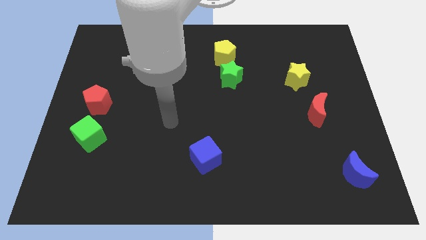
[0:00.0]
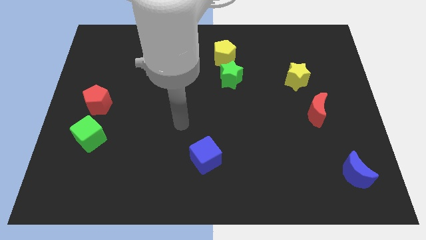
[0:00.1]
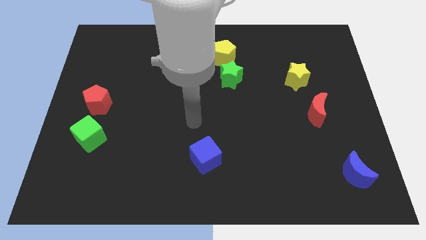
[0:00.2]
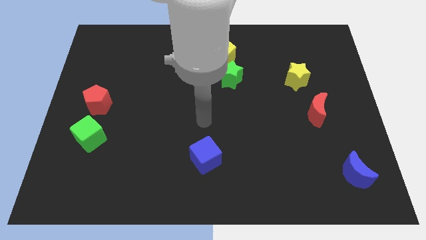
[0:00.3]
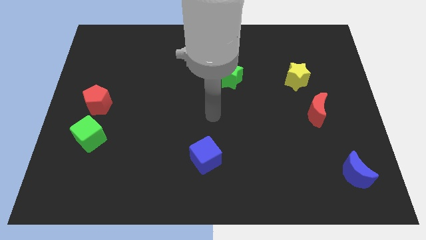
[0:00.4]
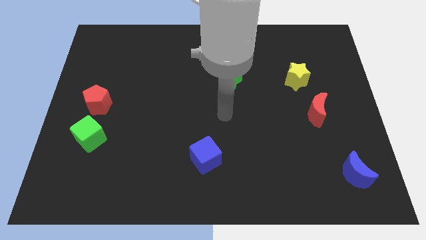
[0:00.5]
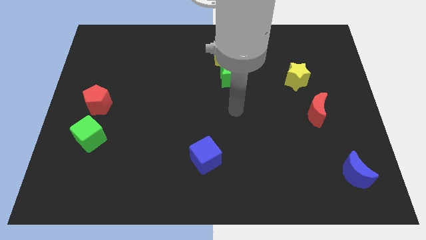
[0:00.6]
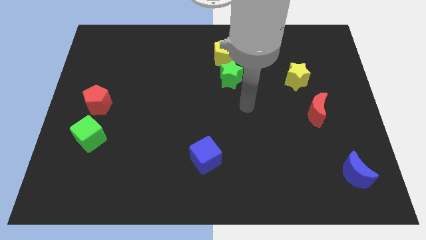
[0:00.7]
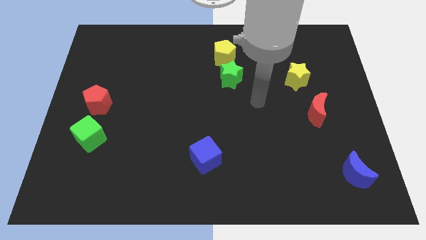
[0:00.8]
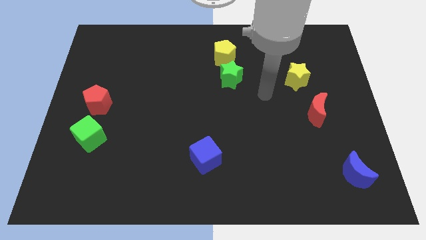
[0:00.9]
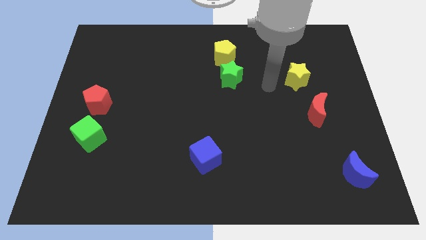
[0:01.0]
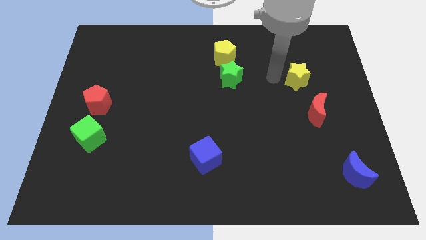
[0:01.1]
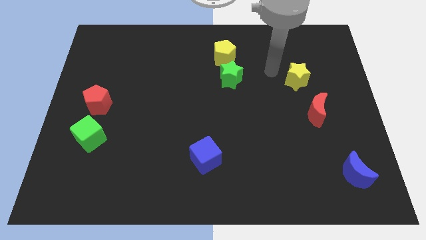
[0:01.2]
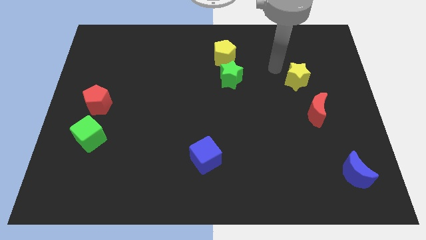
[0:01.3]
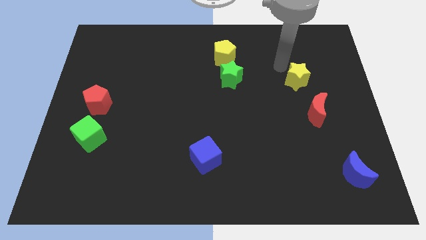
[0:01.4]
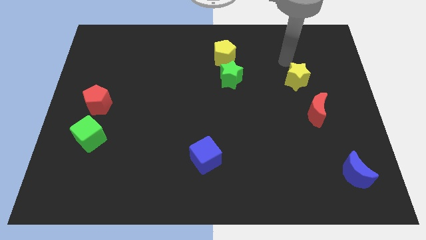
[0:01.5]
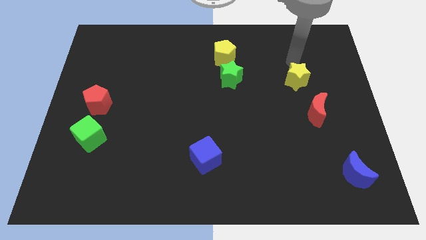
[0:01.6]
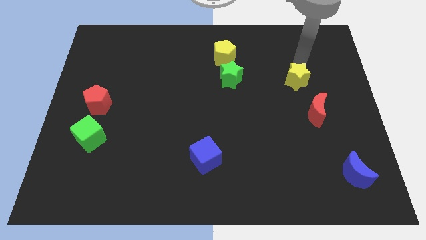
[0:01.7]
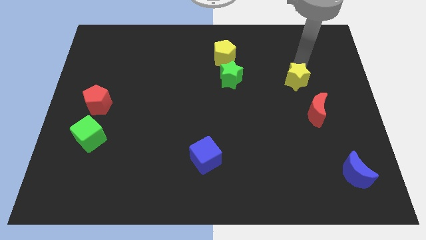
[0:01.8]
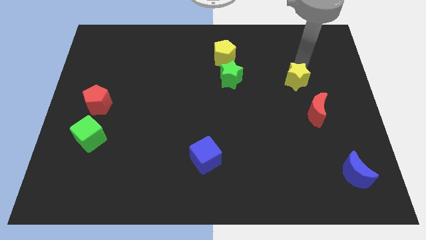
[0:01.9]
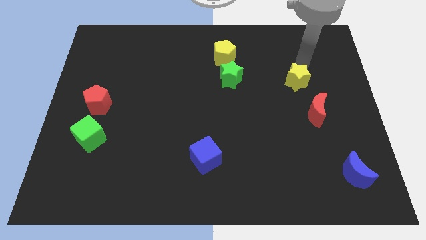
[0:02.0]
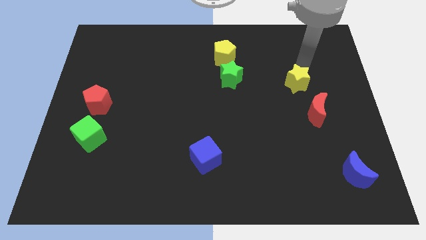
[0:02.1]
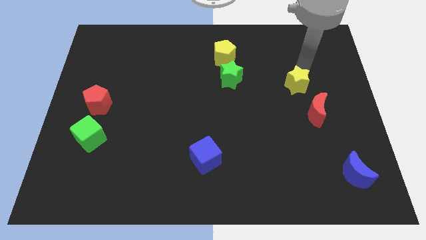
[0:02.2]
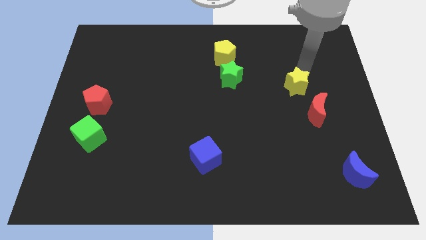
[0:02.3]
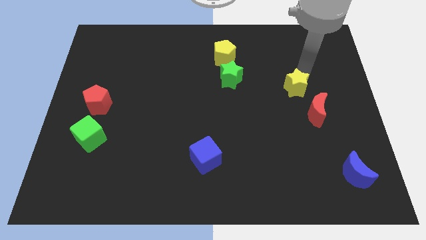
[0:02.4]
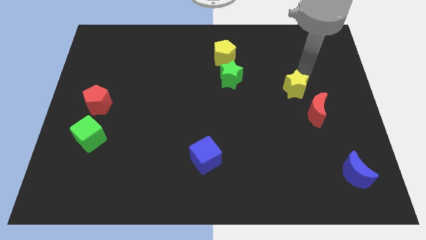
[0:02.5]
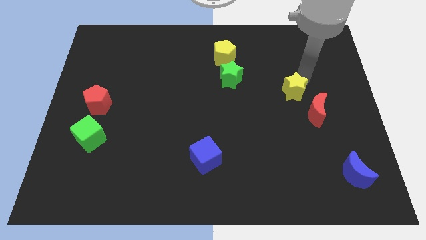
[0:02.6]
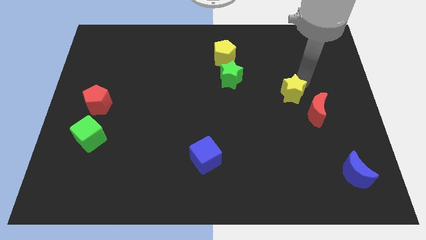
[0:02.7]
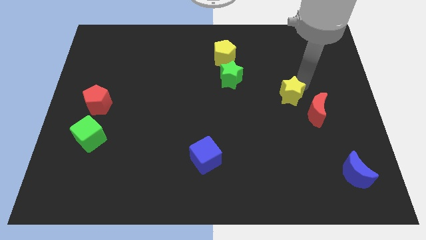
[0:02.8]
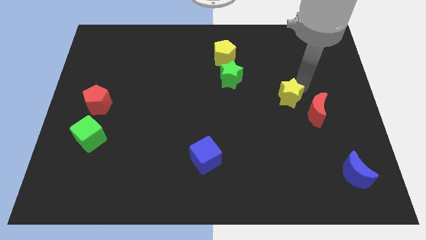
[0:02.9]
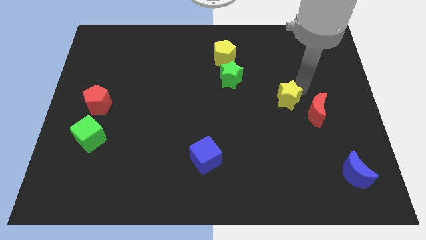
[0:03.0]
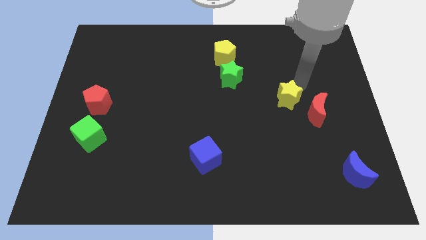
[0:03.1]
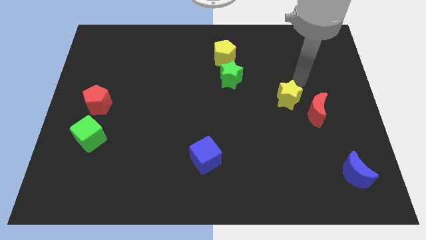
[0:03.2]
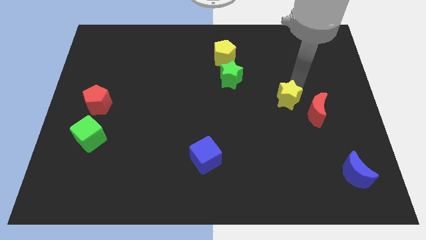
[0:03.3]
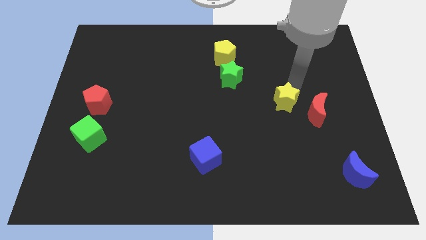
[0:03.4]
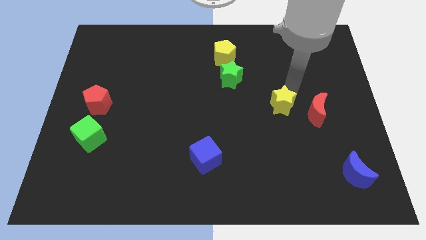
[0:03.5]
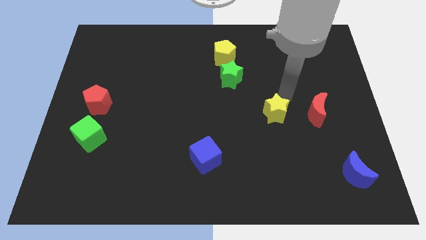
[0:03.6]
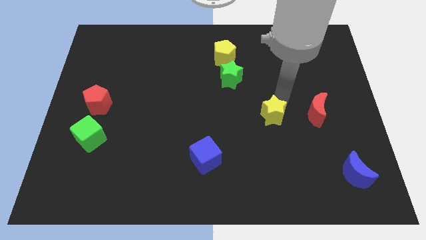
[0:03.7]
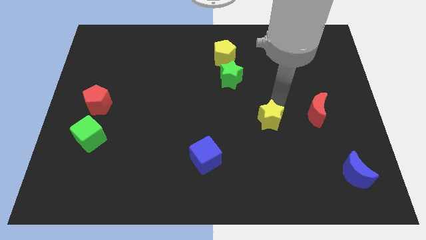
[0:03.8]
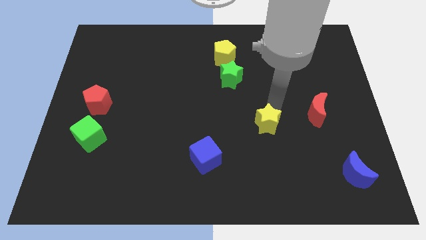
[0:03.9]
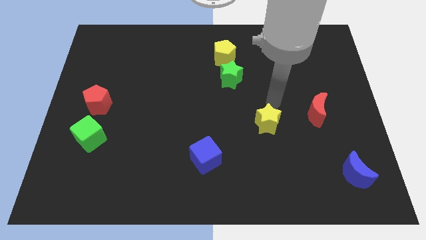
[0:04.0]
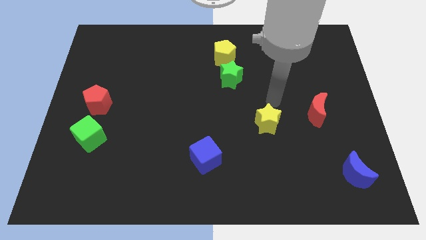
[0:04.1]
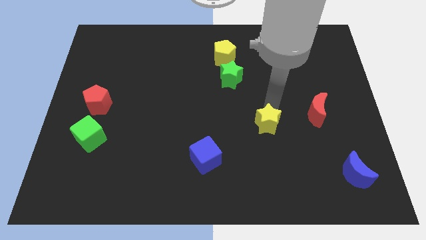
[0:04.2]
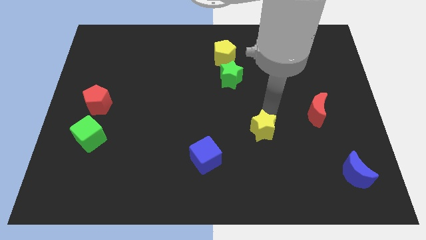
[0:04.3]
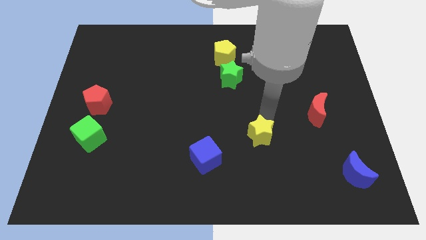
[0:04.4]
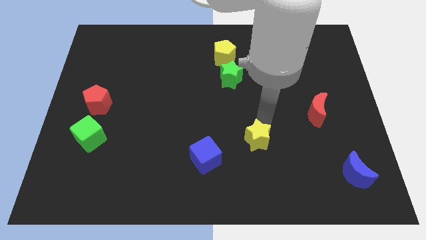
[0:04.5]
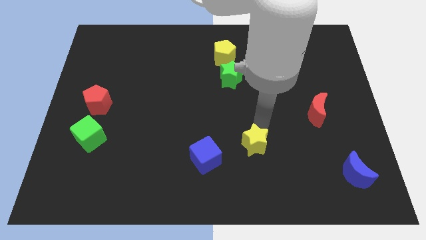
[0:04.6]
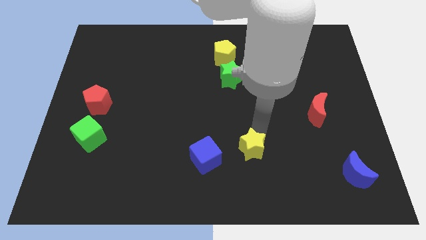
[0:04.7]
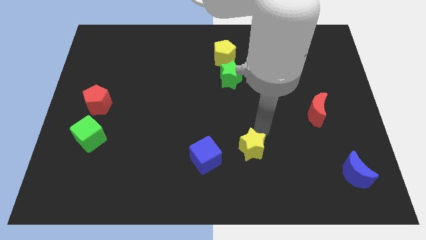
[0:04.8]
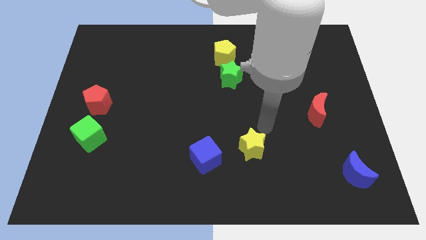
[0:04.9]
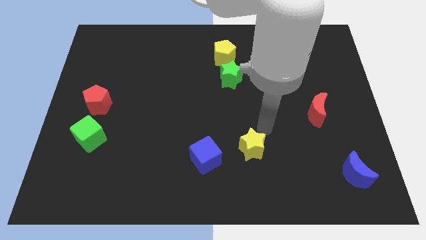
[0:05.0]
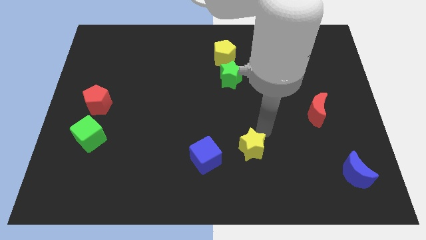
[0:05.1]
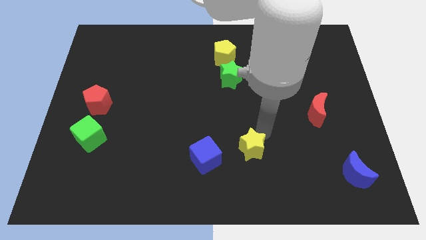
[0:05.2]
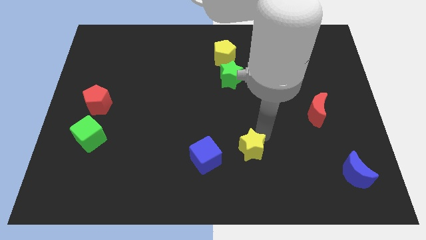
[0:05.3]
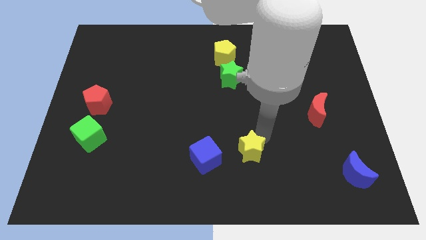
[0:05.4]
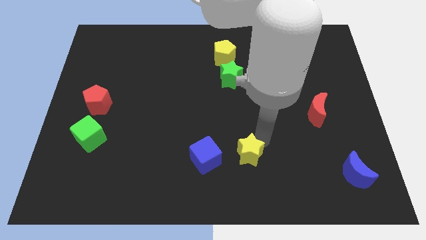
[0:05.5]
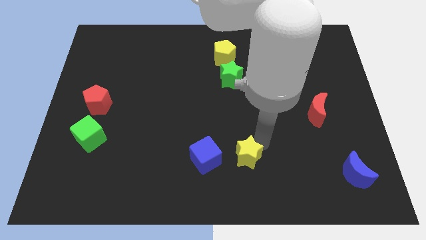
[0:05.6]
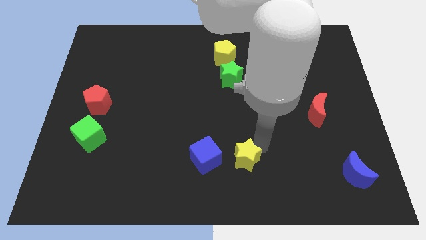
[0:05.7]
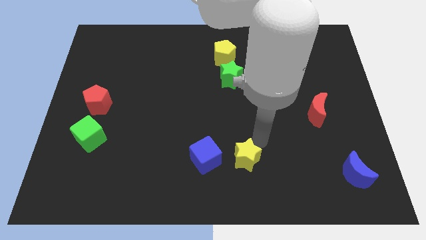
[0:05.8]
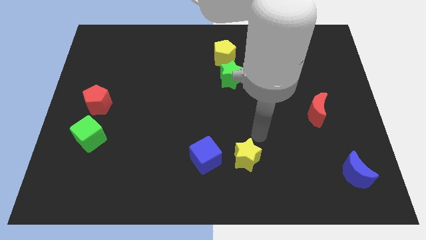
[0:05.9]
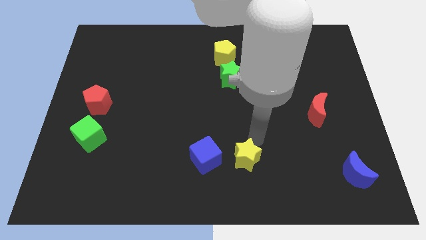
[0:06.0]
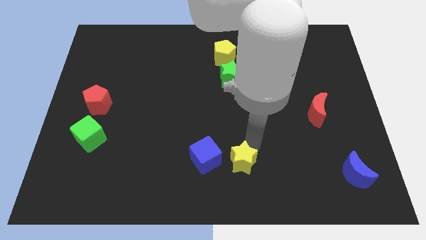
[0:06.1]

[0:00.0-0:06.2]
put the yellow star to the bottom right of the blue cube

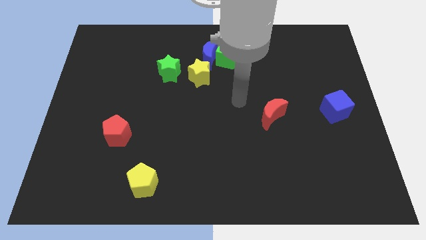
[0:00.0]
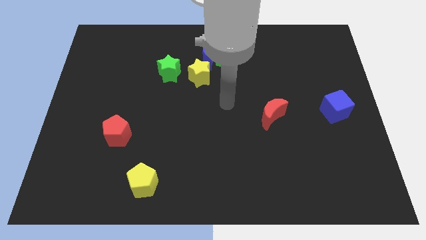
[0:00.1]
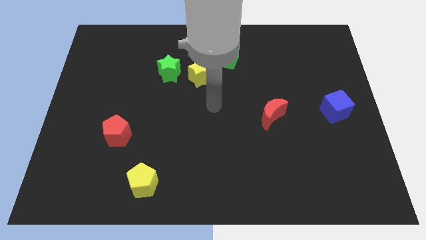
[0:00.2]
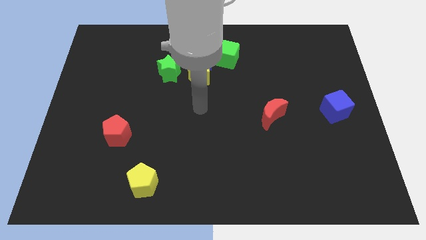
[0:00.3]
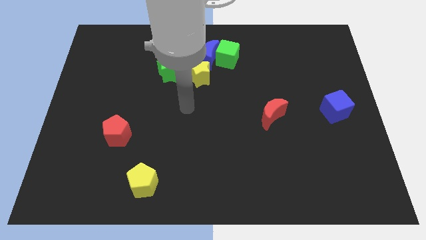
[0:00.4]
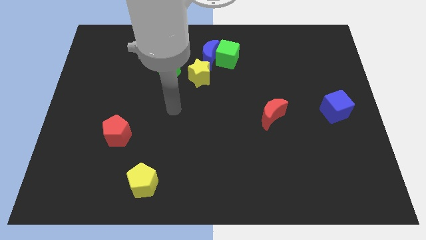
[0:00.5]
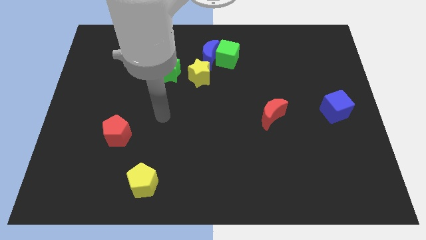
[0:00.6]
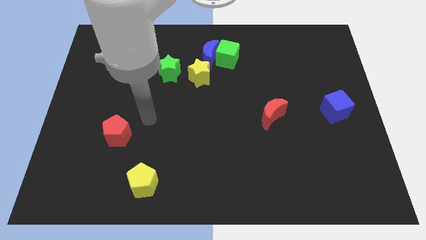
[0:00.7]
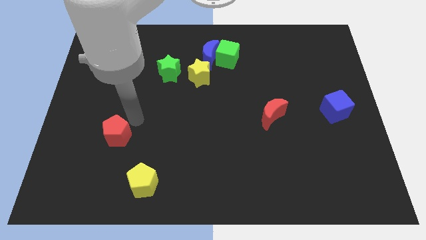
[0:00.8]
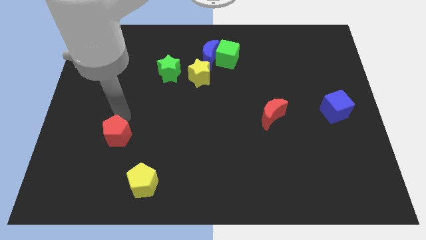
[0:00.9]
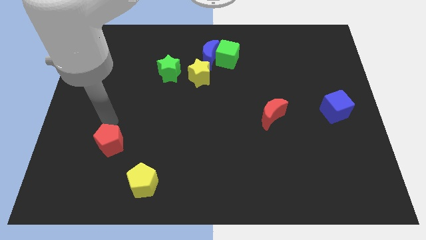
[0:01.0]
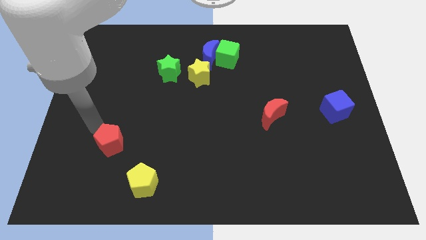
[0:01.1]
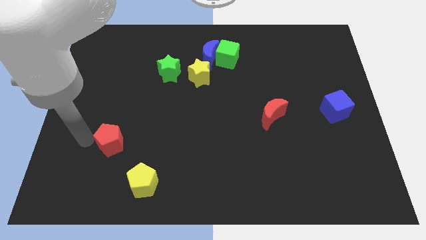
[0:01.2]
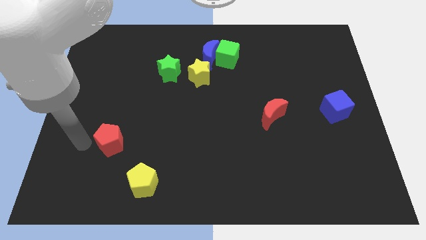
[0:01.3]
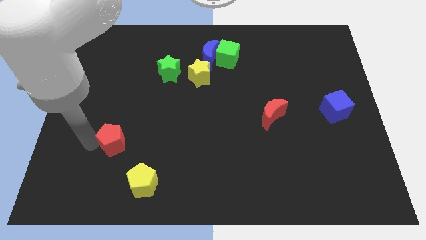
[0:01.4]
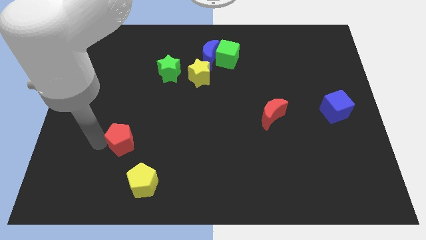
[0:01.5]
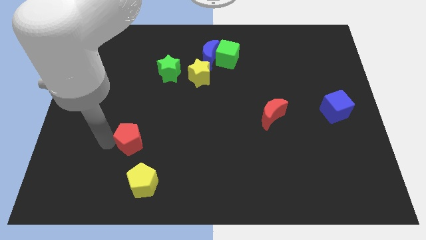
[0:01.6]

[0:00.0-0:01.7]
push the red pentagon to the top of the yellow pentagon
